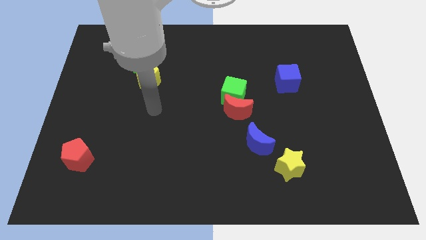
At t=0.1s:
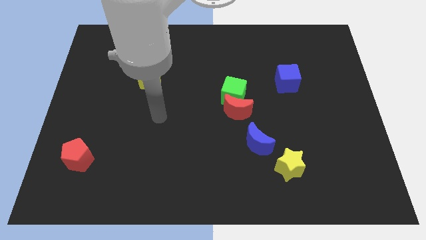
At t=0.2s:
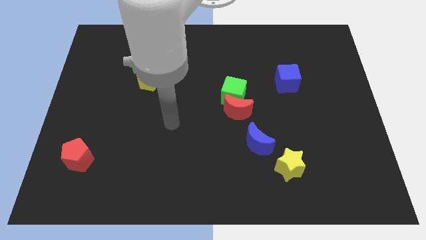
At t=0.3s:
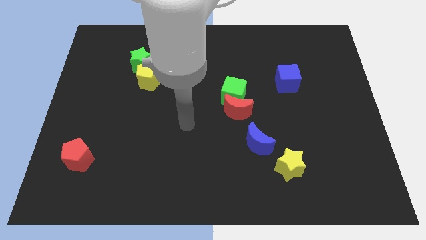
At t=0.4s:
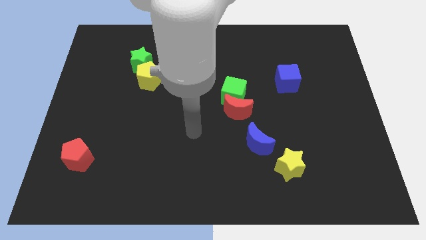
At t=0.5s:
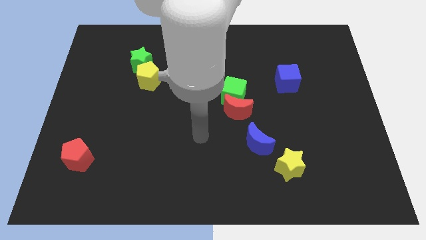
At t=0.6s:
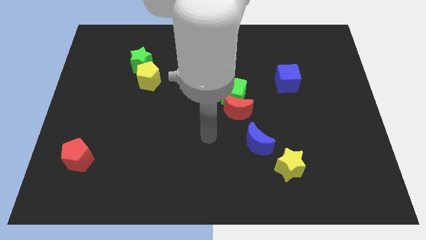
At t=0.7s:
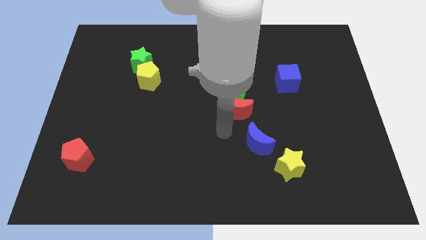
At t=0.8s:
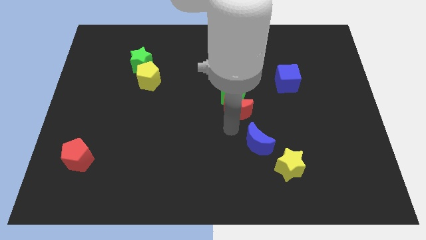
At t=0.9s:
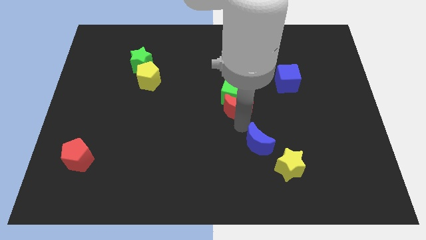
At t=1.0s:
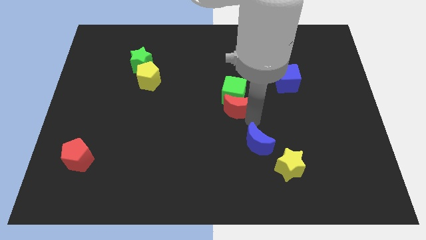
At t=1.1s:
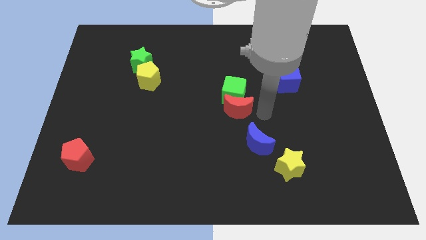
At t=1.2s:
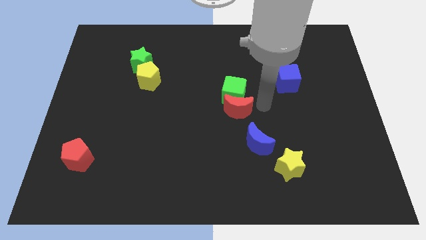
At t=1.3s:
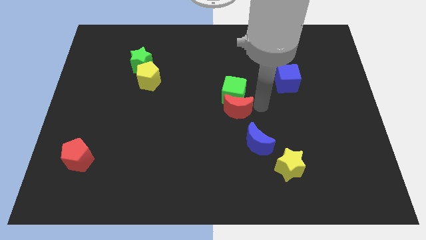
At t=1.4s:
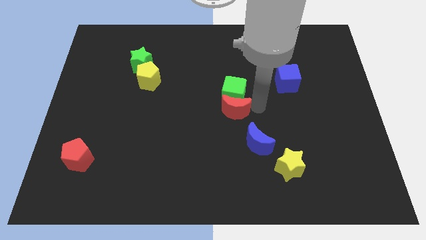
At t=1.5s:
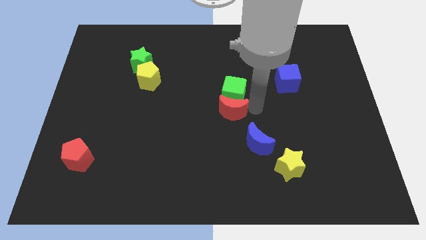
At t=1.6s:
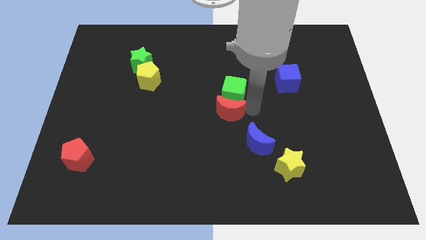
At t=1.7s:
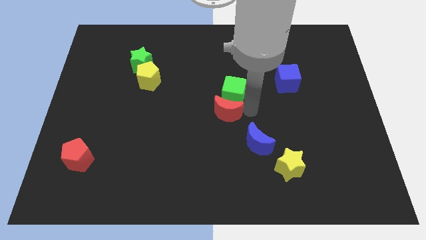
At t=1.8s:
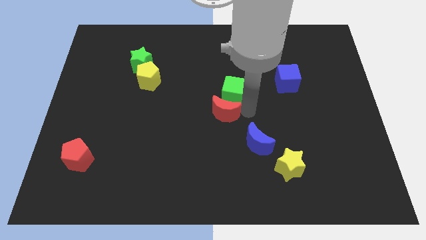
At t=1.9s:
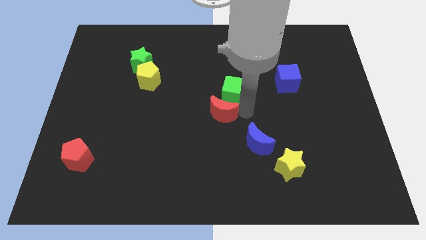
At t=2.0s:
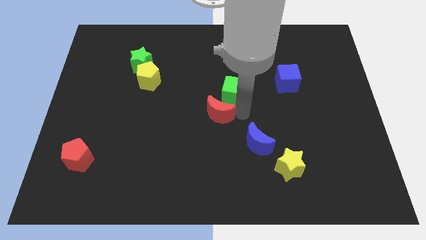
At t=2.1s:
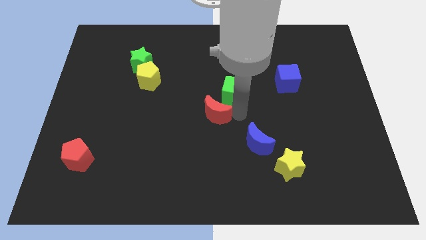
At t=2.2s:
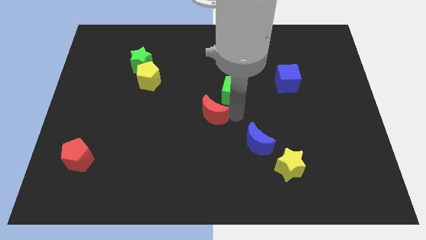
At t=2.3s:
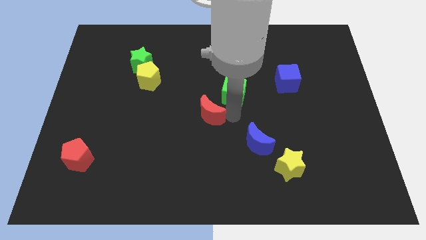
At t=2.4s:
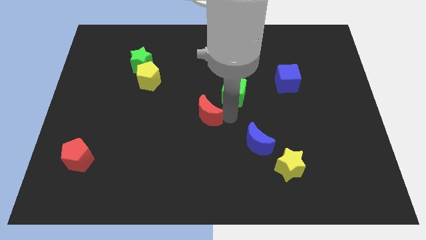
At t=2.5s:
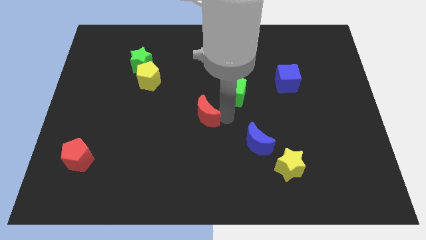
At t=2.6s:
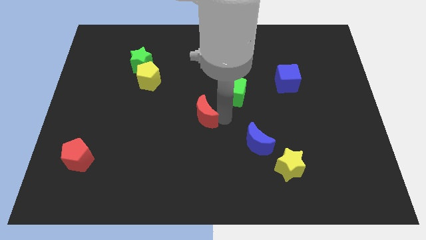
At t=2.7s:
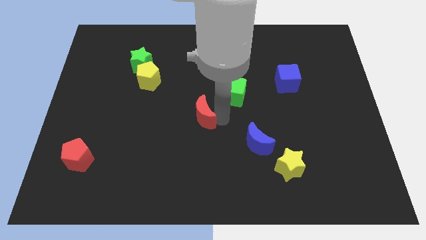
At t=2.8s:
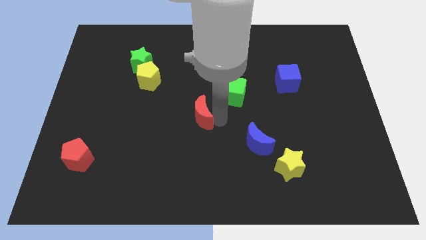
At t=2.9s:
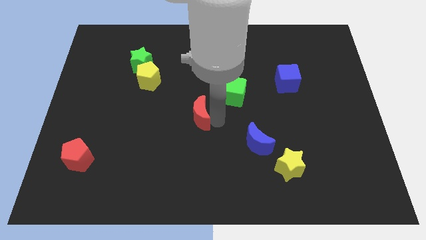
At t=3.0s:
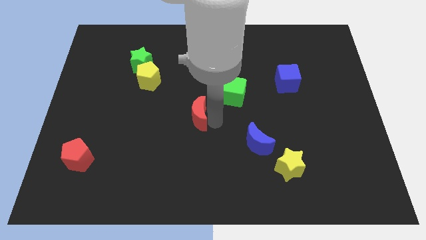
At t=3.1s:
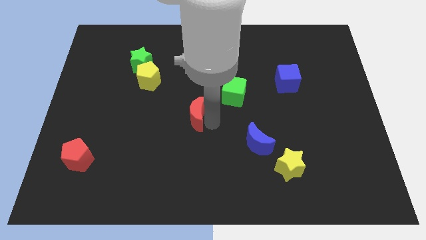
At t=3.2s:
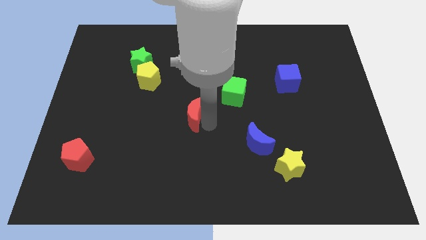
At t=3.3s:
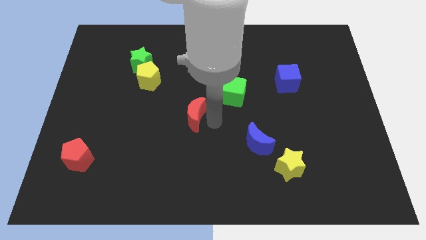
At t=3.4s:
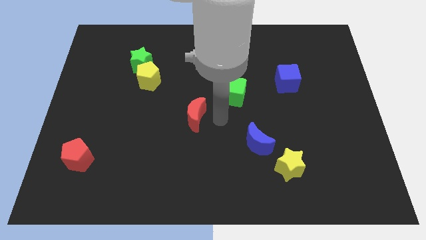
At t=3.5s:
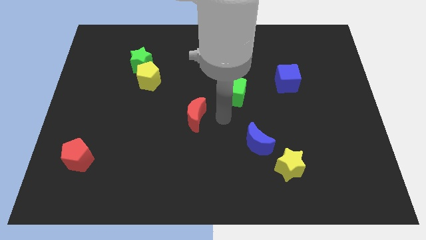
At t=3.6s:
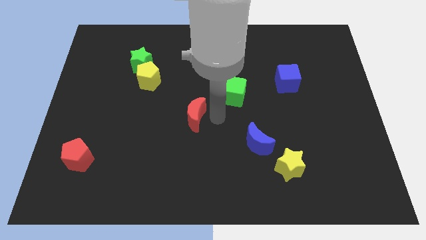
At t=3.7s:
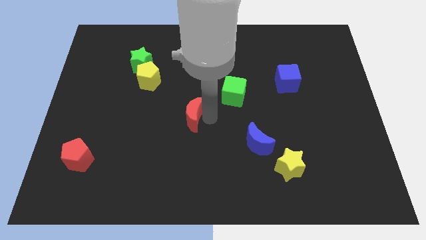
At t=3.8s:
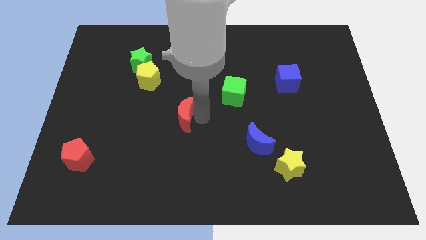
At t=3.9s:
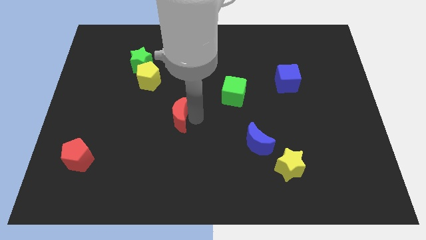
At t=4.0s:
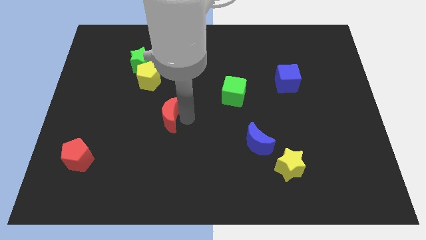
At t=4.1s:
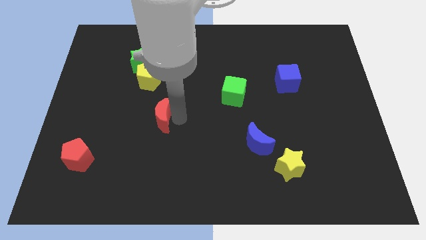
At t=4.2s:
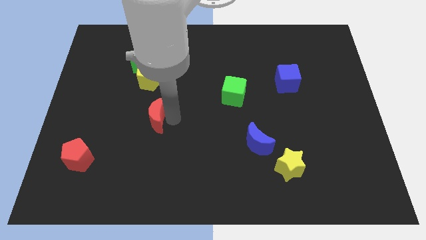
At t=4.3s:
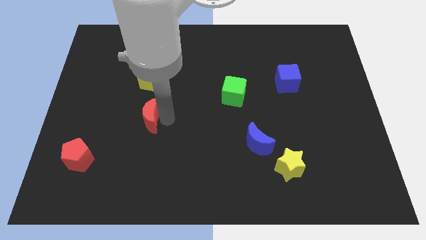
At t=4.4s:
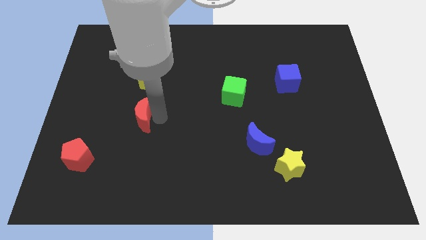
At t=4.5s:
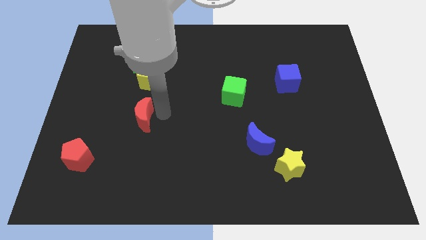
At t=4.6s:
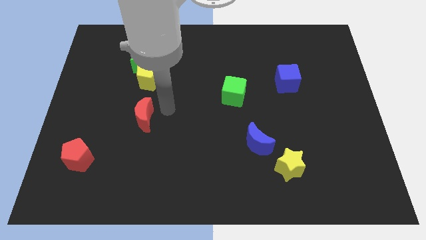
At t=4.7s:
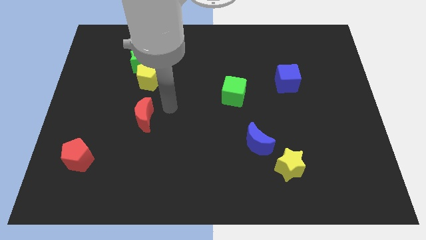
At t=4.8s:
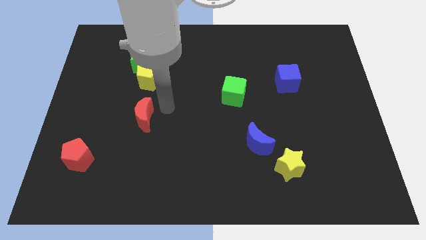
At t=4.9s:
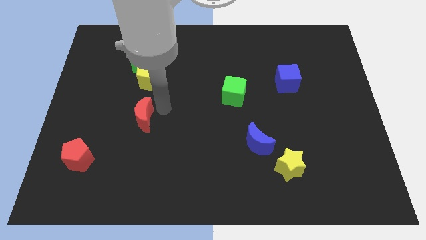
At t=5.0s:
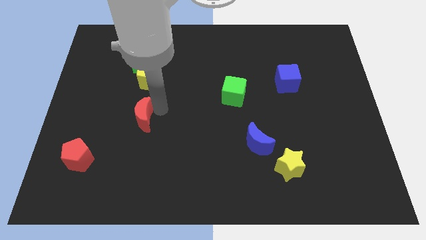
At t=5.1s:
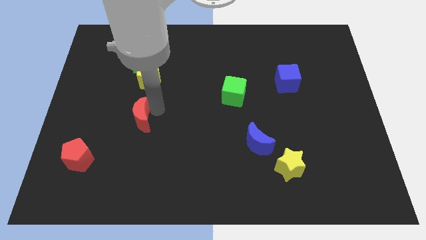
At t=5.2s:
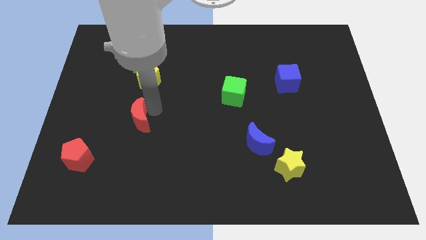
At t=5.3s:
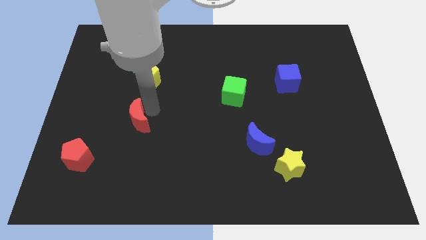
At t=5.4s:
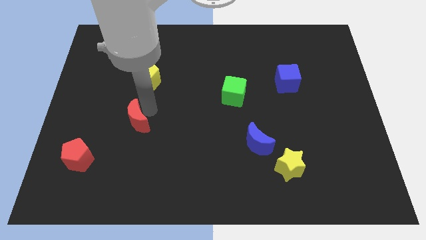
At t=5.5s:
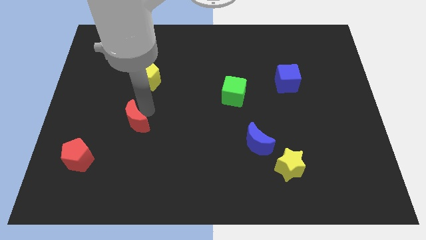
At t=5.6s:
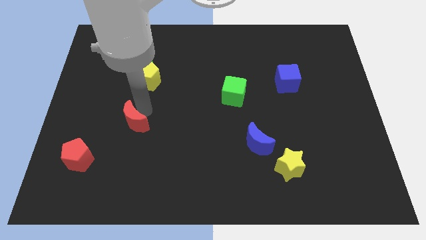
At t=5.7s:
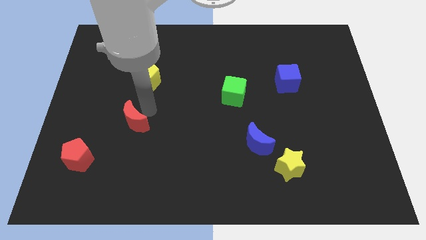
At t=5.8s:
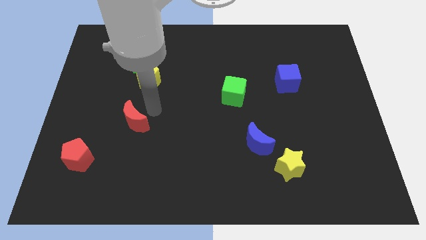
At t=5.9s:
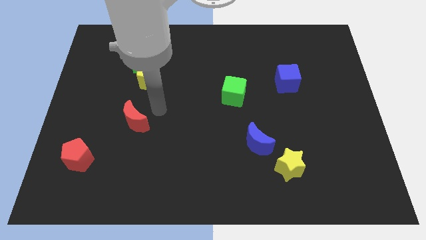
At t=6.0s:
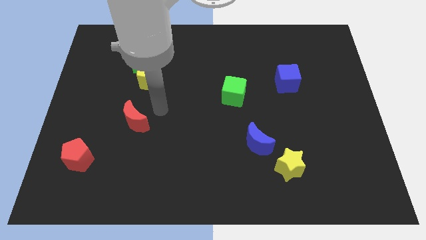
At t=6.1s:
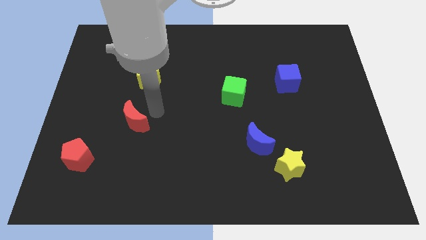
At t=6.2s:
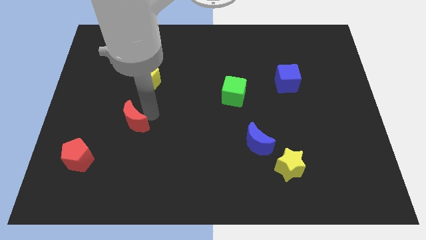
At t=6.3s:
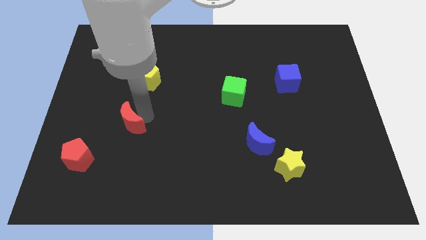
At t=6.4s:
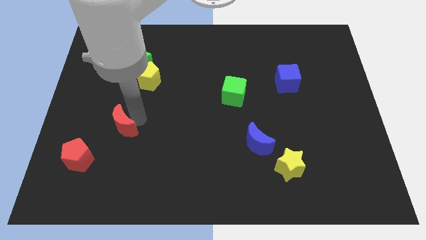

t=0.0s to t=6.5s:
slide the red moon diagonally up and to the right of the red pentagon

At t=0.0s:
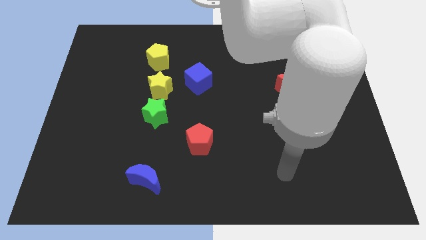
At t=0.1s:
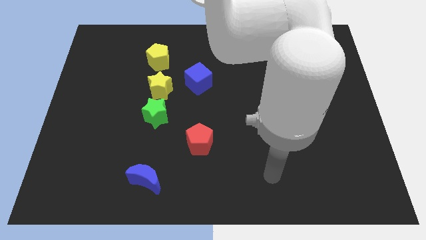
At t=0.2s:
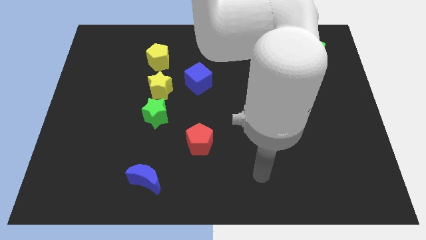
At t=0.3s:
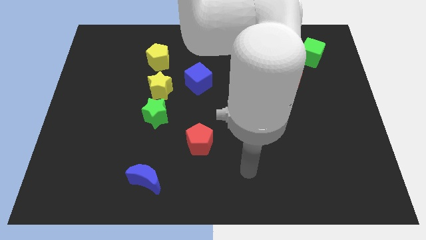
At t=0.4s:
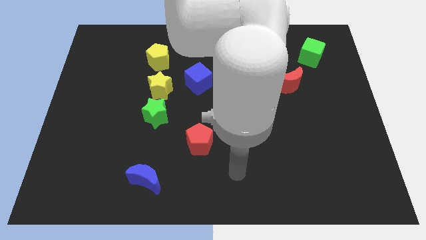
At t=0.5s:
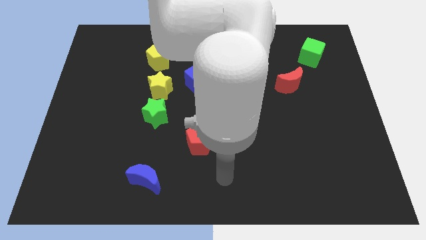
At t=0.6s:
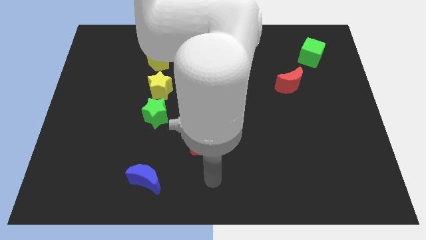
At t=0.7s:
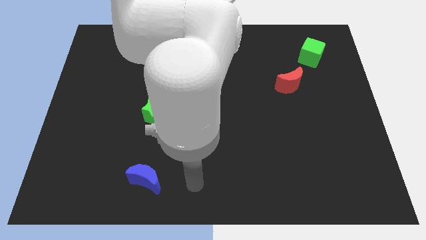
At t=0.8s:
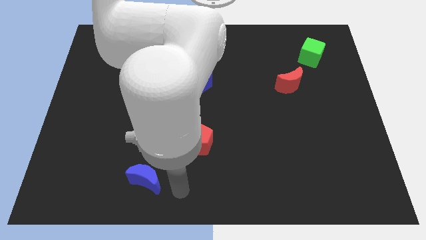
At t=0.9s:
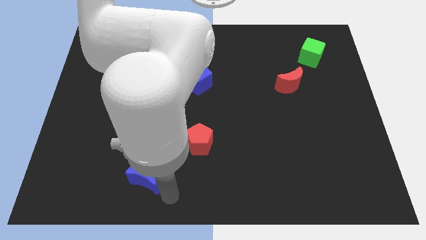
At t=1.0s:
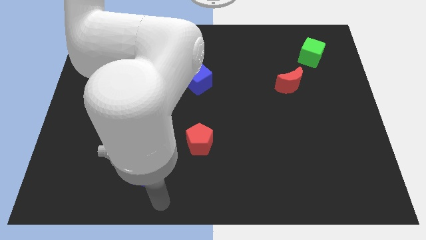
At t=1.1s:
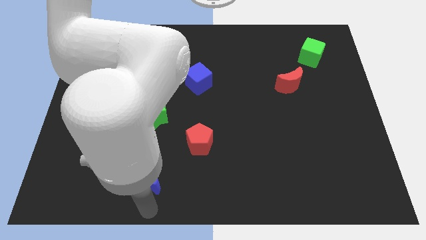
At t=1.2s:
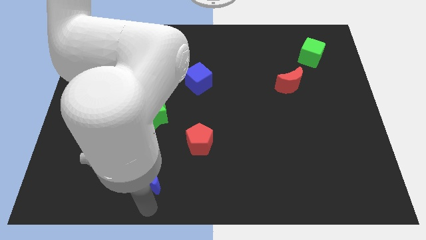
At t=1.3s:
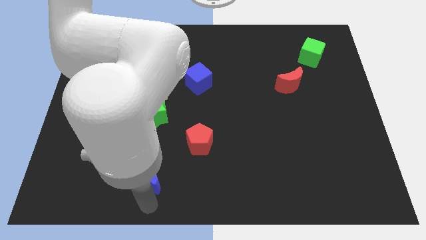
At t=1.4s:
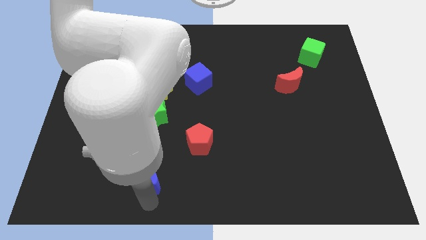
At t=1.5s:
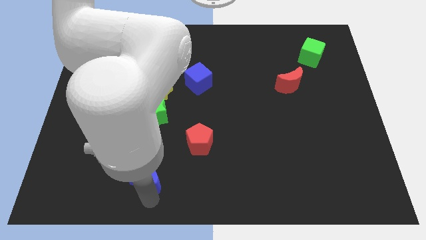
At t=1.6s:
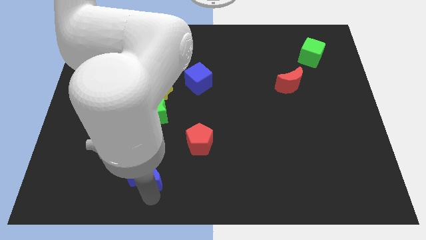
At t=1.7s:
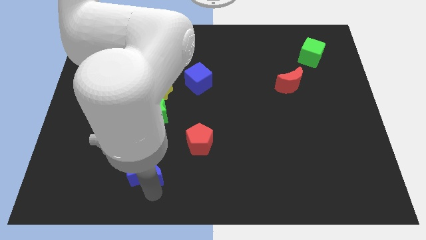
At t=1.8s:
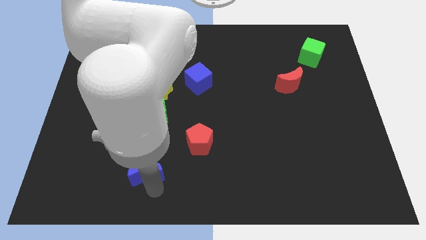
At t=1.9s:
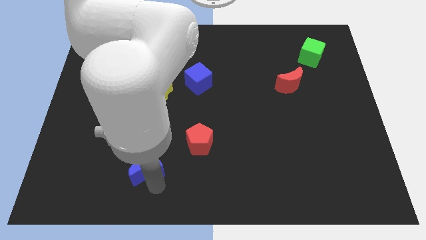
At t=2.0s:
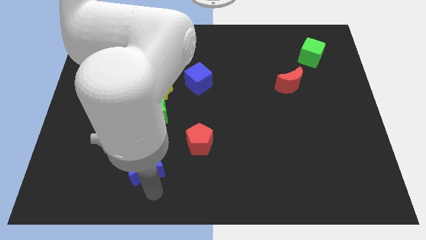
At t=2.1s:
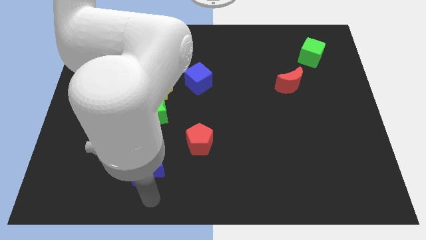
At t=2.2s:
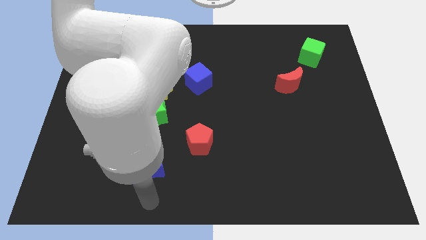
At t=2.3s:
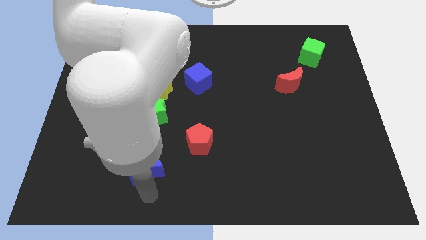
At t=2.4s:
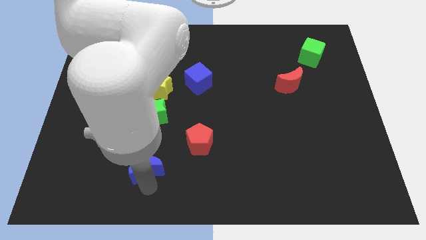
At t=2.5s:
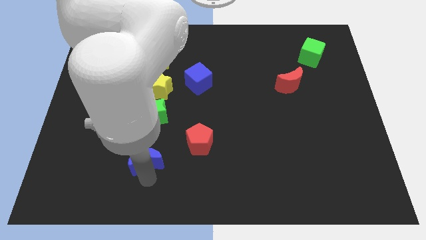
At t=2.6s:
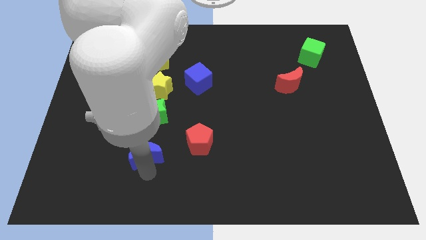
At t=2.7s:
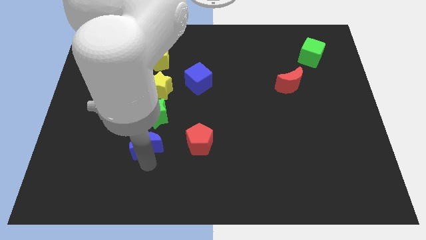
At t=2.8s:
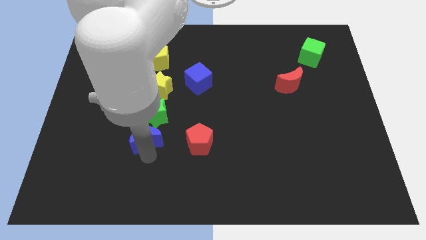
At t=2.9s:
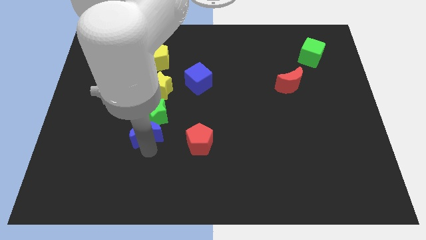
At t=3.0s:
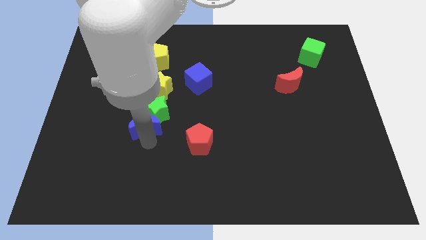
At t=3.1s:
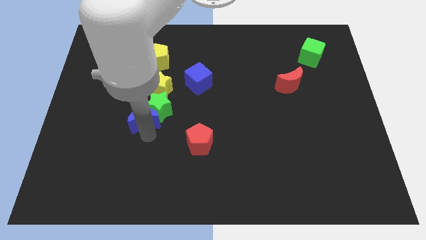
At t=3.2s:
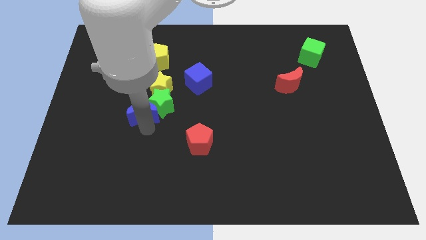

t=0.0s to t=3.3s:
slide the blue moon diagonally down and to the left of the yellow star
